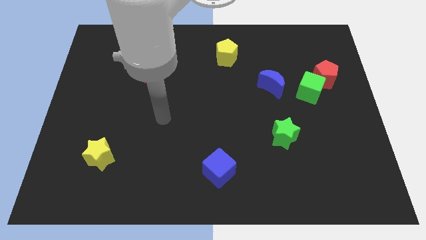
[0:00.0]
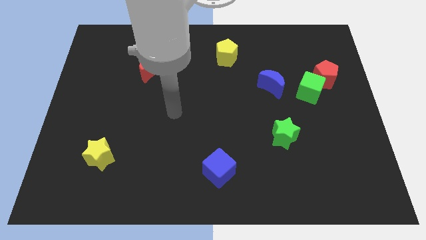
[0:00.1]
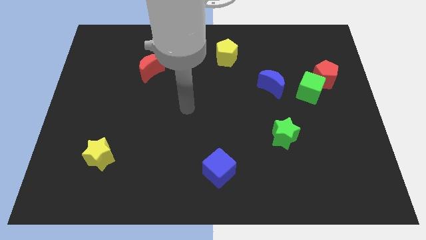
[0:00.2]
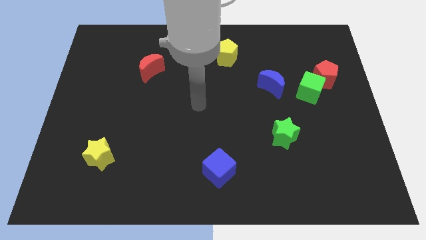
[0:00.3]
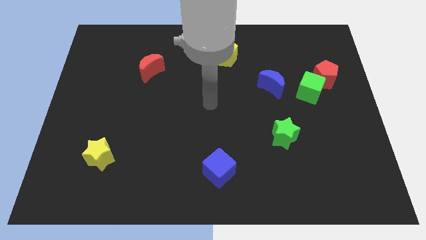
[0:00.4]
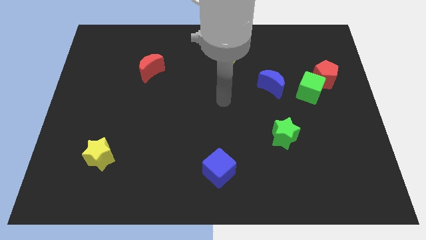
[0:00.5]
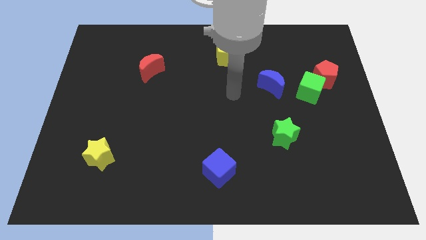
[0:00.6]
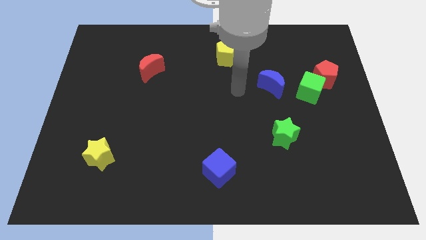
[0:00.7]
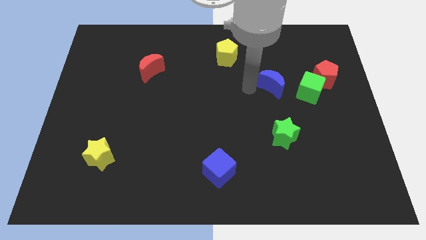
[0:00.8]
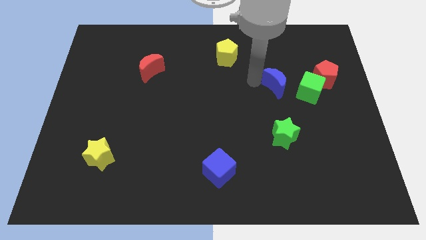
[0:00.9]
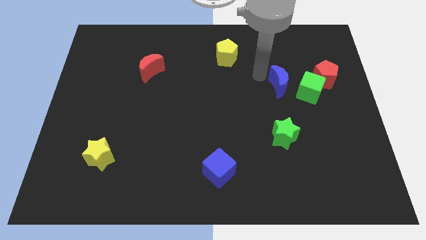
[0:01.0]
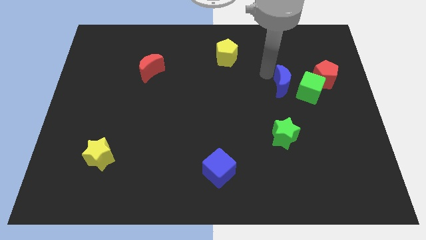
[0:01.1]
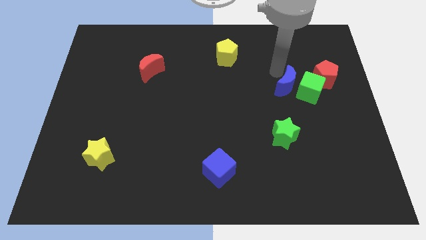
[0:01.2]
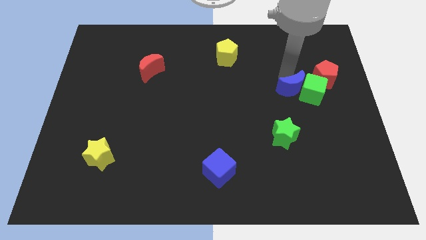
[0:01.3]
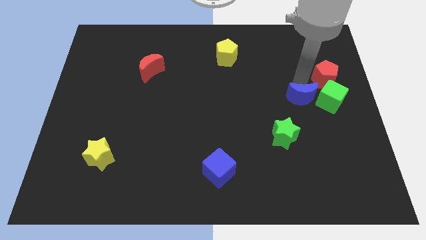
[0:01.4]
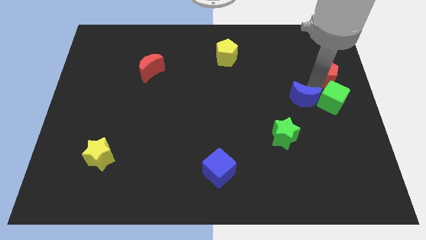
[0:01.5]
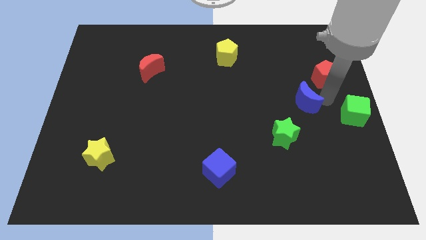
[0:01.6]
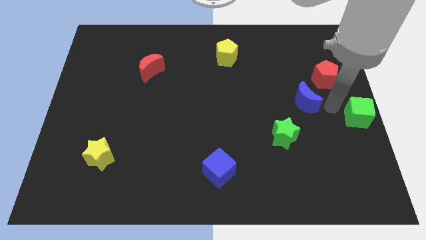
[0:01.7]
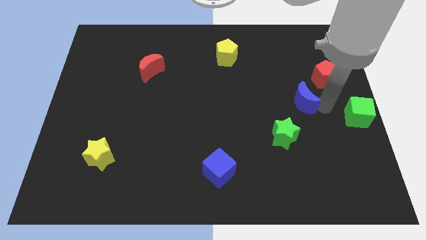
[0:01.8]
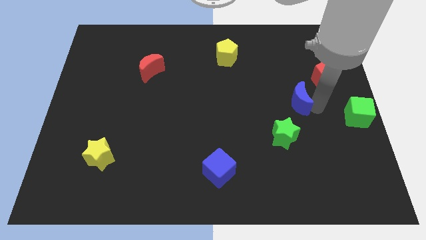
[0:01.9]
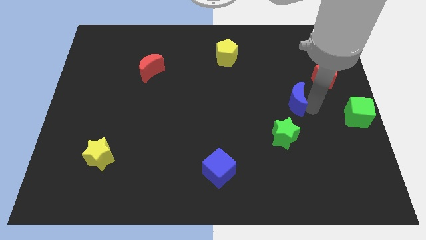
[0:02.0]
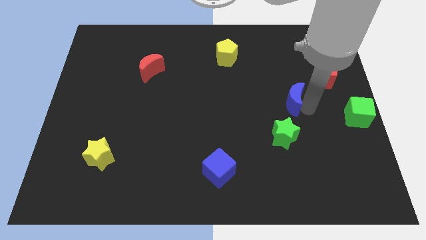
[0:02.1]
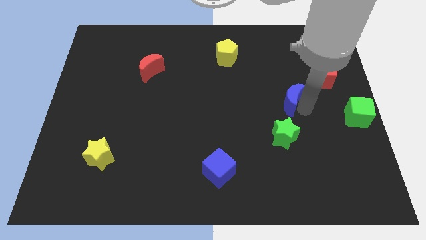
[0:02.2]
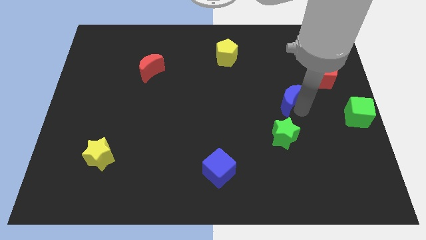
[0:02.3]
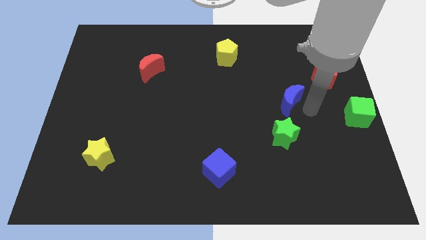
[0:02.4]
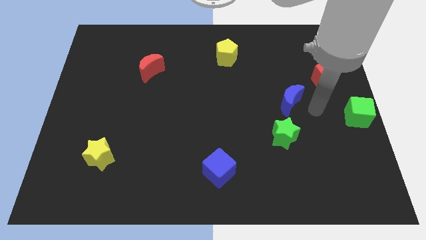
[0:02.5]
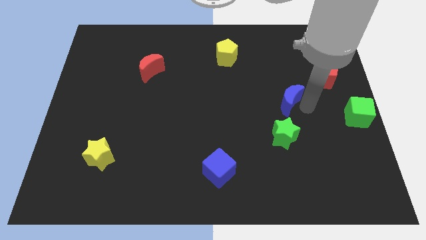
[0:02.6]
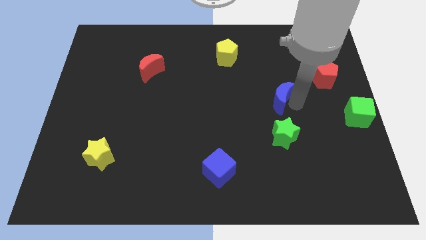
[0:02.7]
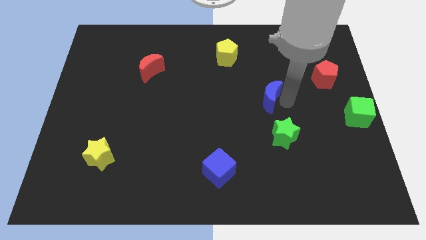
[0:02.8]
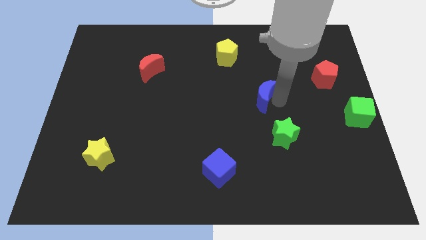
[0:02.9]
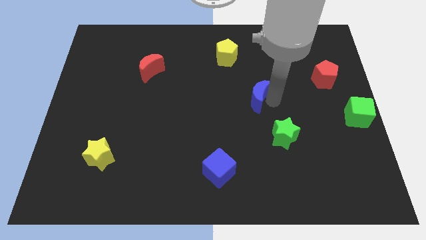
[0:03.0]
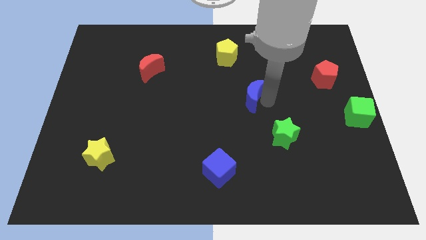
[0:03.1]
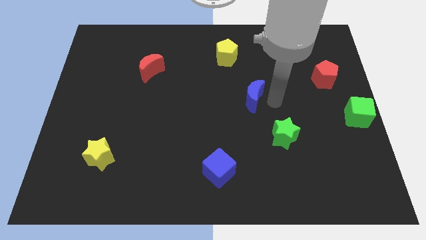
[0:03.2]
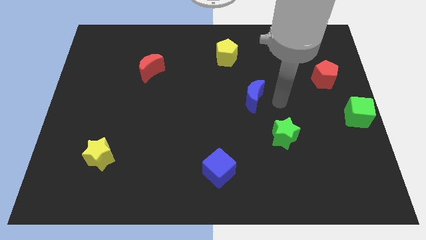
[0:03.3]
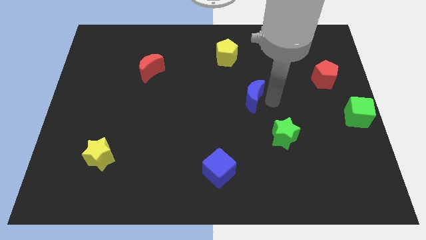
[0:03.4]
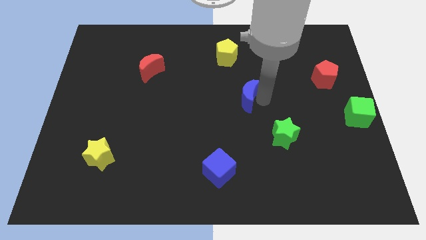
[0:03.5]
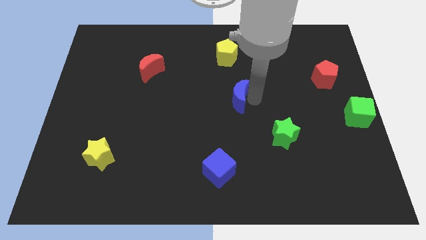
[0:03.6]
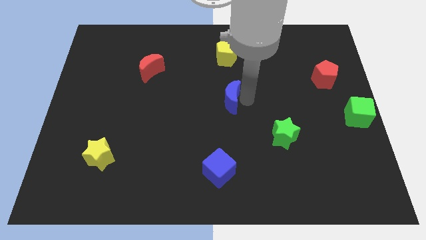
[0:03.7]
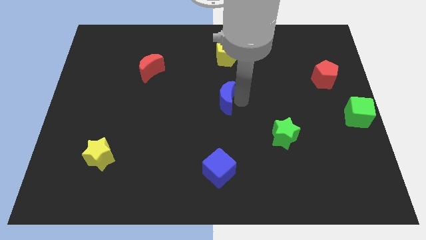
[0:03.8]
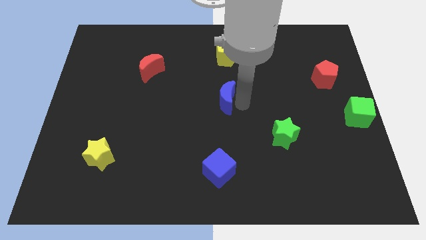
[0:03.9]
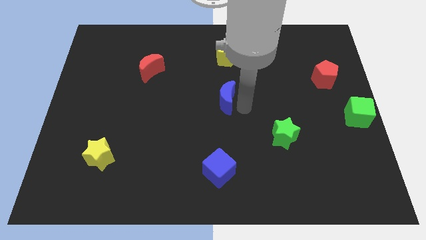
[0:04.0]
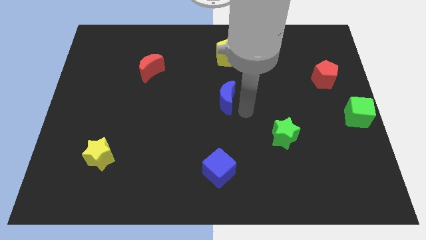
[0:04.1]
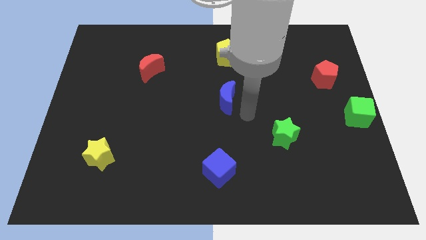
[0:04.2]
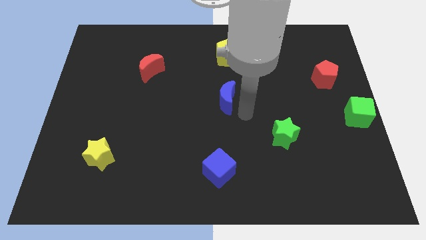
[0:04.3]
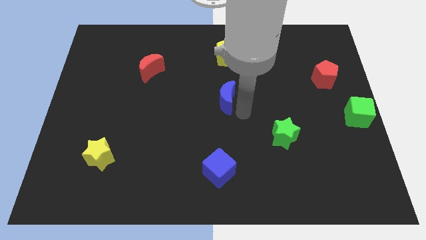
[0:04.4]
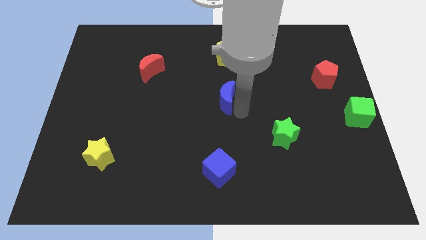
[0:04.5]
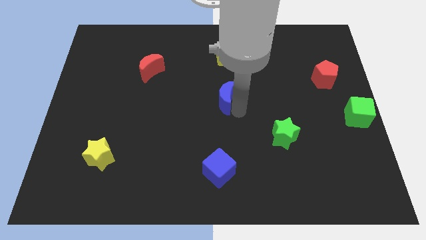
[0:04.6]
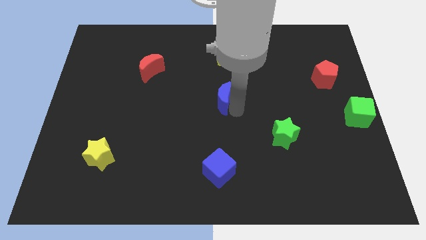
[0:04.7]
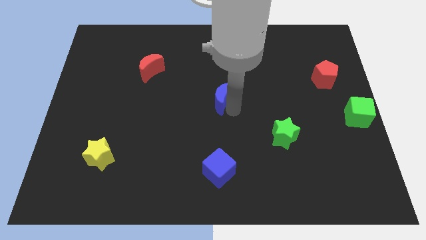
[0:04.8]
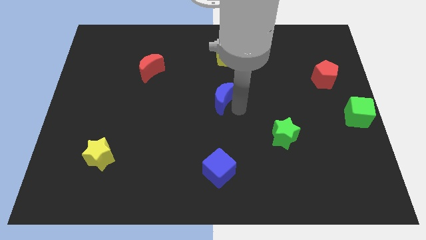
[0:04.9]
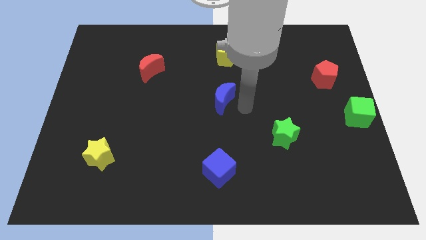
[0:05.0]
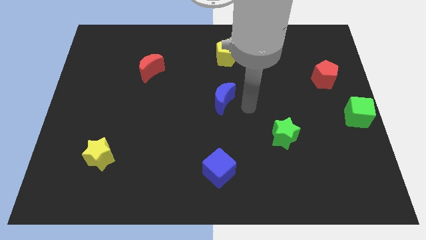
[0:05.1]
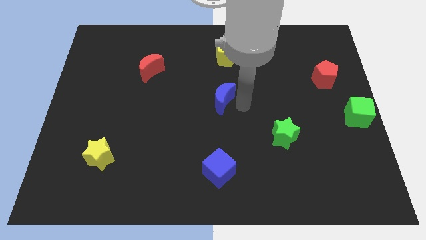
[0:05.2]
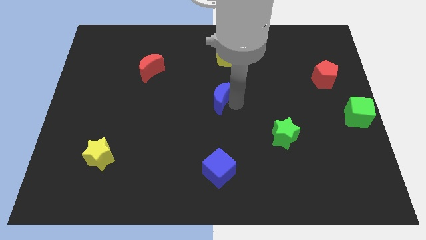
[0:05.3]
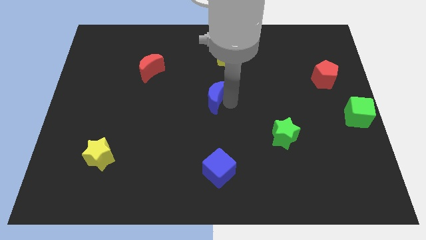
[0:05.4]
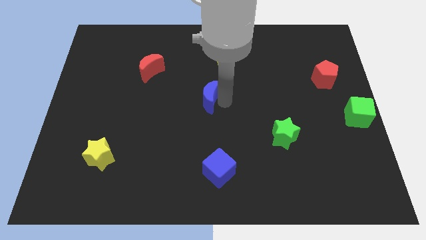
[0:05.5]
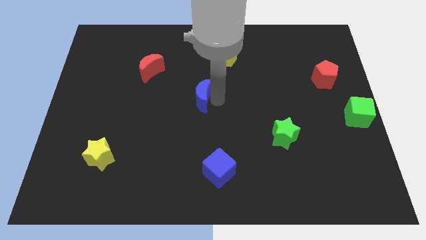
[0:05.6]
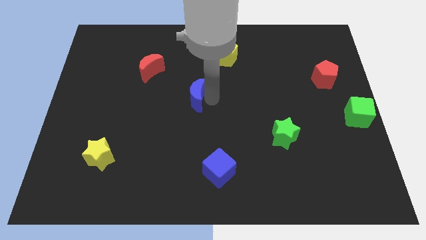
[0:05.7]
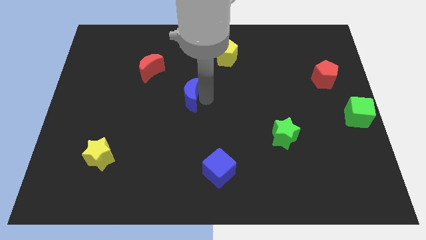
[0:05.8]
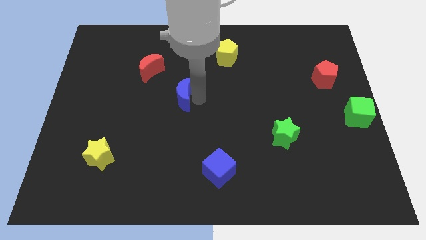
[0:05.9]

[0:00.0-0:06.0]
push the blue moon left

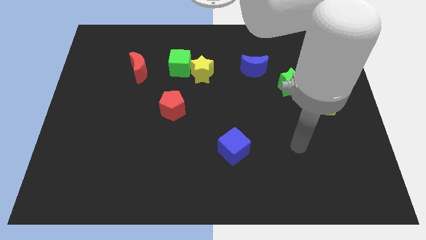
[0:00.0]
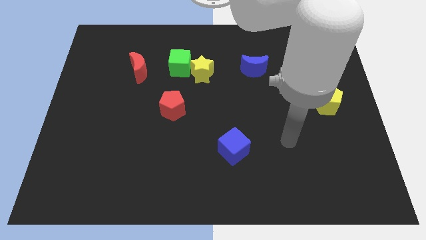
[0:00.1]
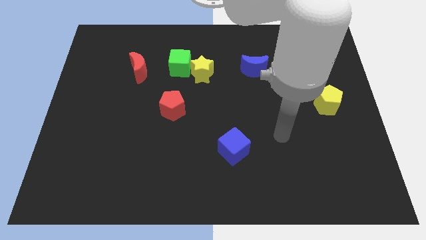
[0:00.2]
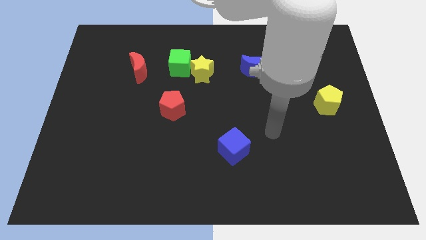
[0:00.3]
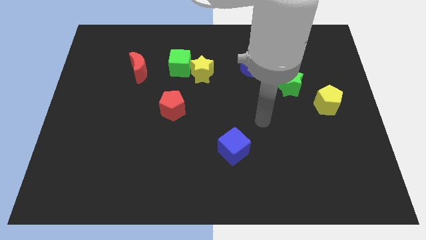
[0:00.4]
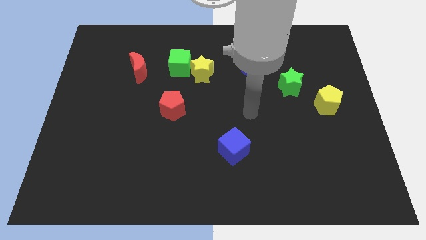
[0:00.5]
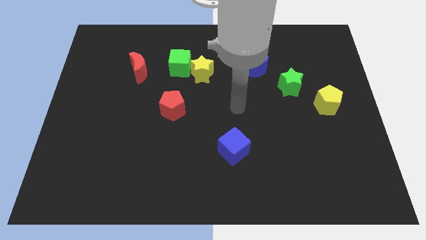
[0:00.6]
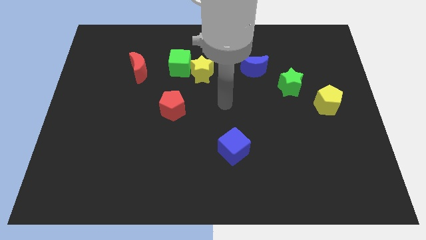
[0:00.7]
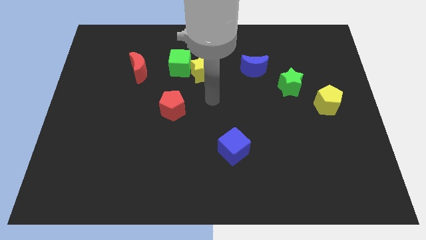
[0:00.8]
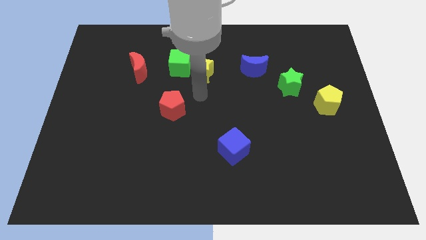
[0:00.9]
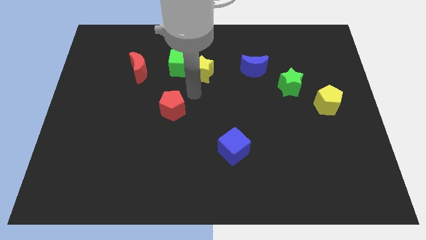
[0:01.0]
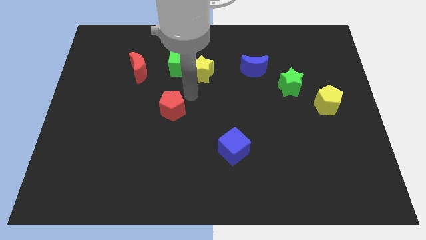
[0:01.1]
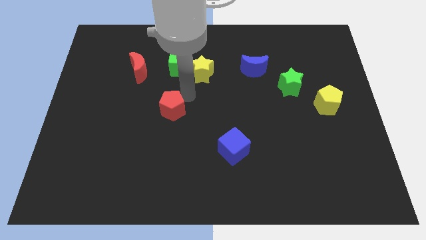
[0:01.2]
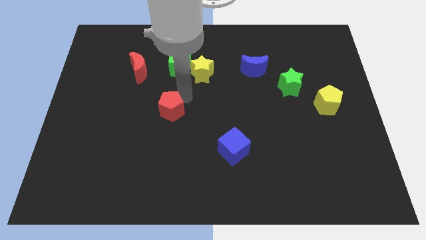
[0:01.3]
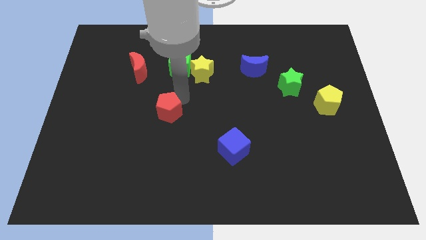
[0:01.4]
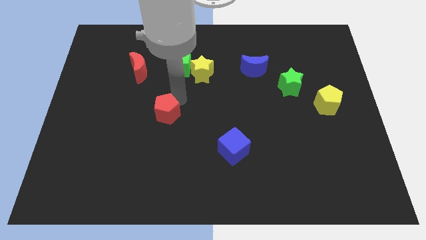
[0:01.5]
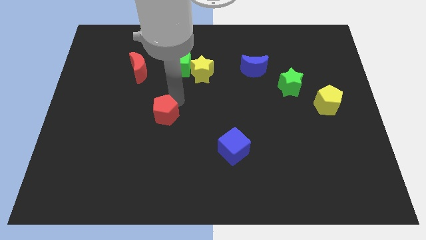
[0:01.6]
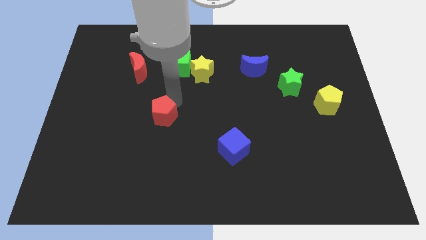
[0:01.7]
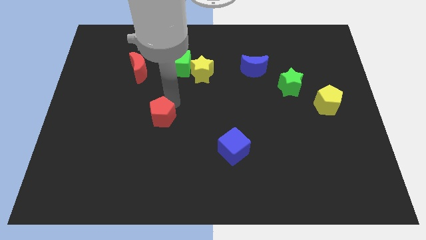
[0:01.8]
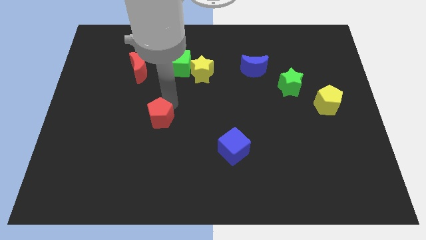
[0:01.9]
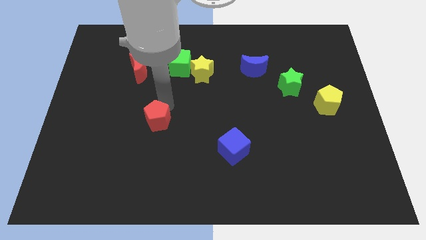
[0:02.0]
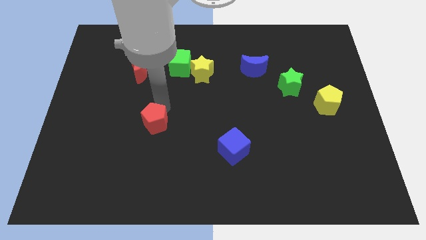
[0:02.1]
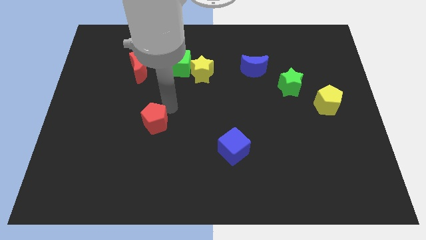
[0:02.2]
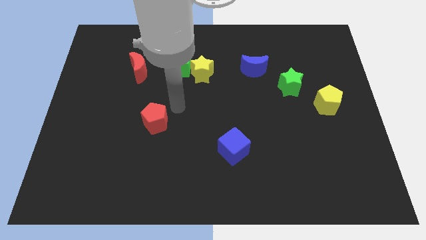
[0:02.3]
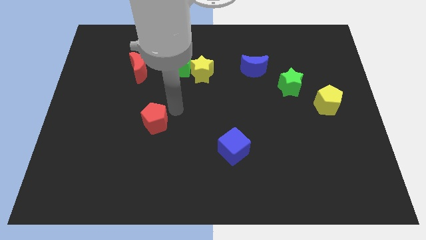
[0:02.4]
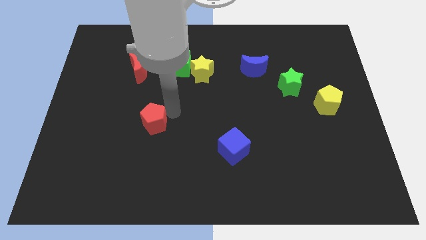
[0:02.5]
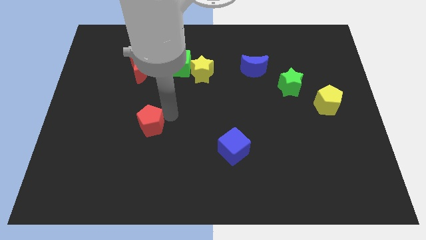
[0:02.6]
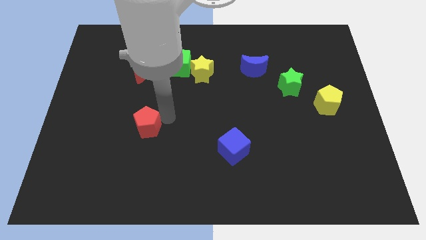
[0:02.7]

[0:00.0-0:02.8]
move the red pentagon downwards and left a little bit
